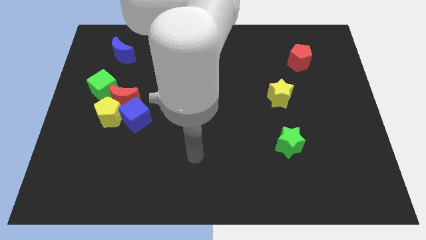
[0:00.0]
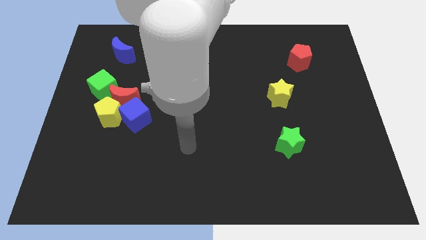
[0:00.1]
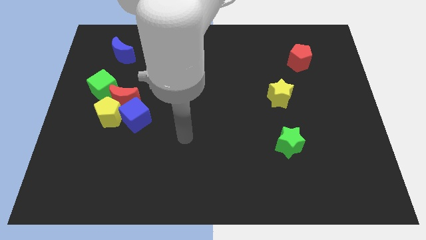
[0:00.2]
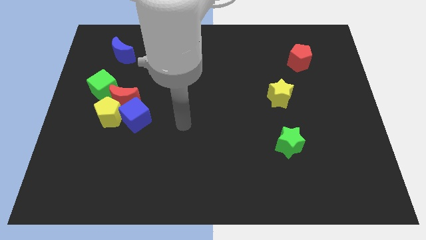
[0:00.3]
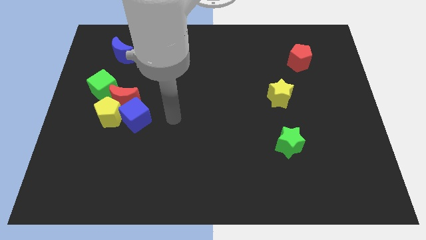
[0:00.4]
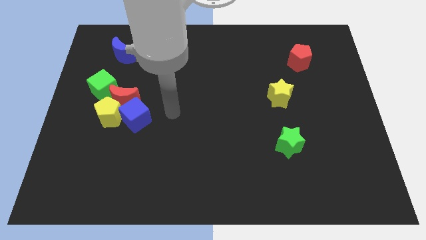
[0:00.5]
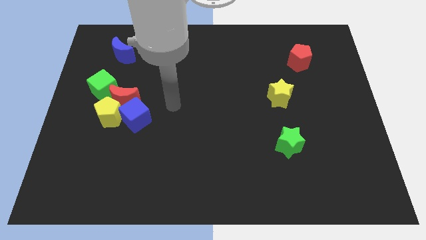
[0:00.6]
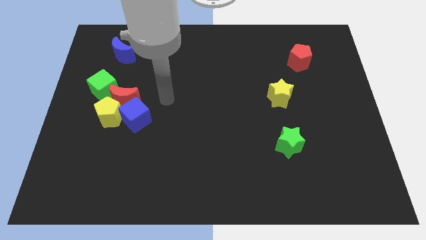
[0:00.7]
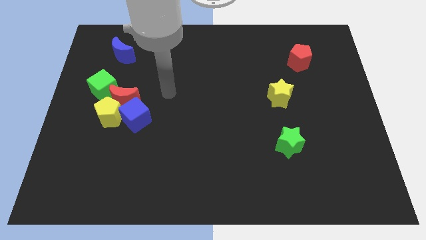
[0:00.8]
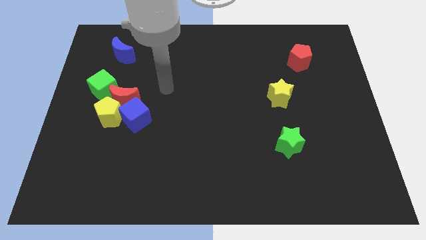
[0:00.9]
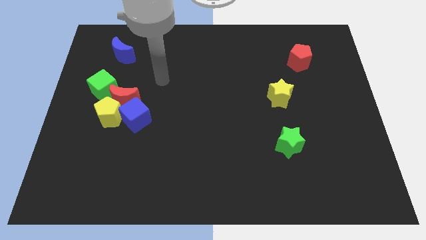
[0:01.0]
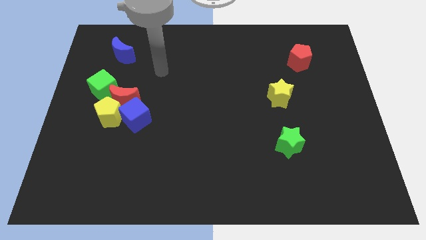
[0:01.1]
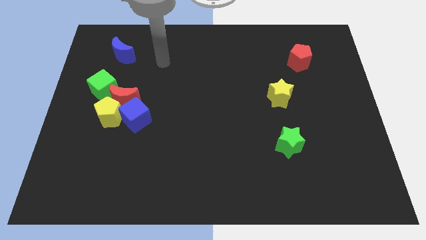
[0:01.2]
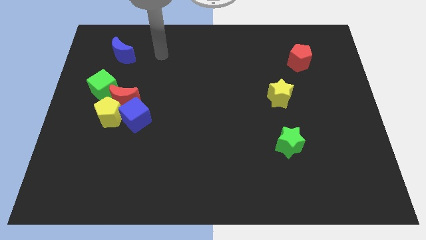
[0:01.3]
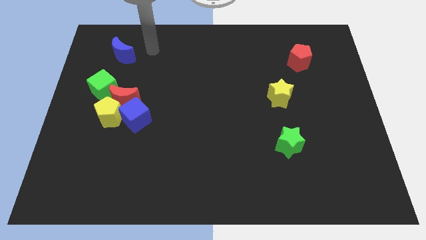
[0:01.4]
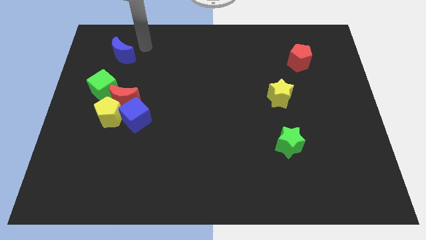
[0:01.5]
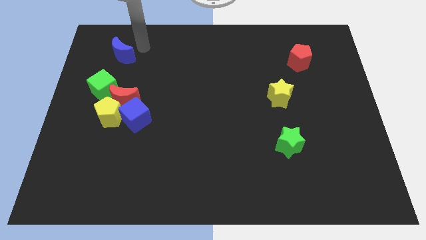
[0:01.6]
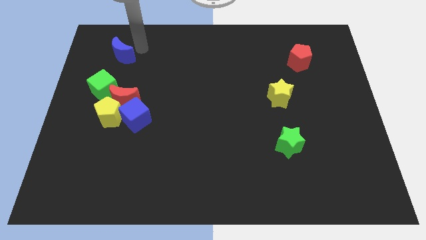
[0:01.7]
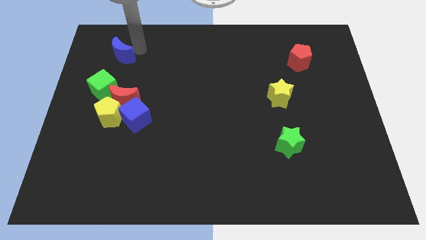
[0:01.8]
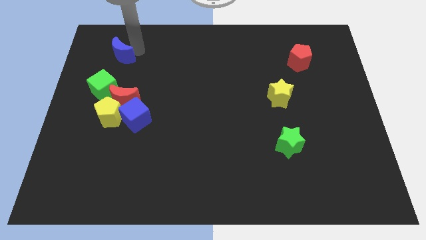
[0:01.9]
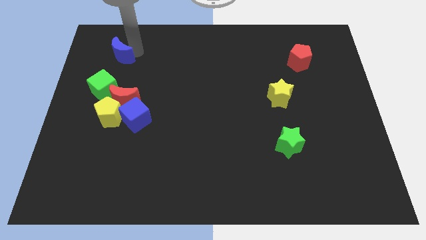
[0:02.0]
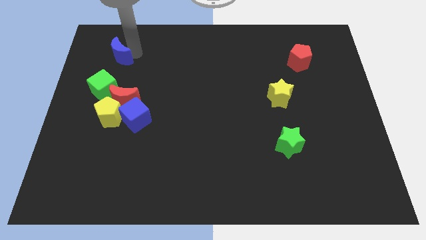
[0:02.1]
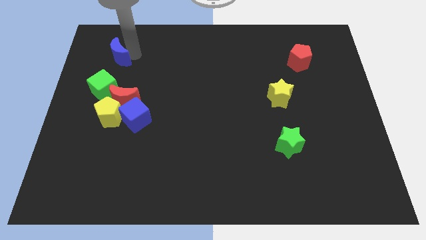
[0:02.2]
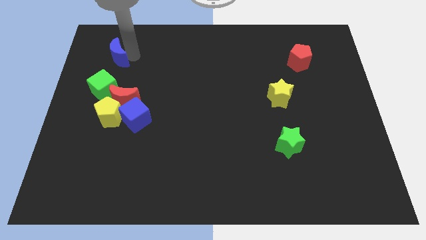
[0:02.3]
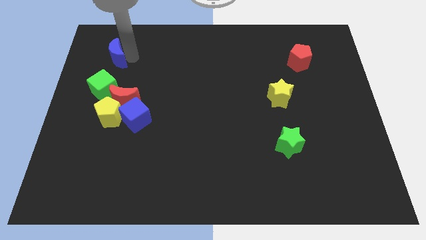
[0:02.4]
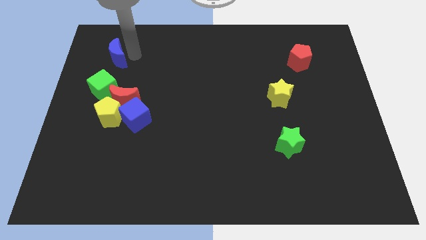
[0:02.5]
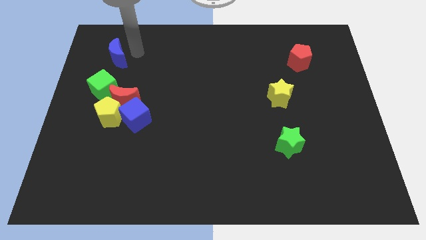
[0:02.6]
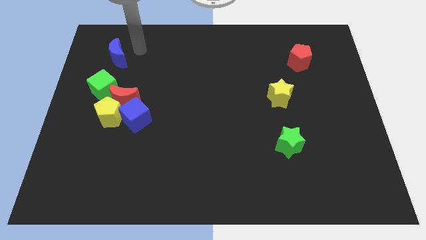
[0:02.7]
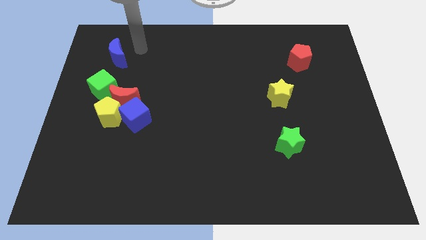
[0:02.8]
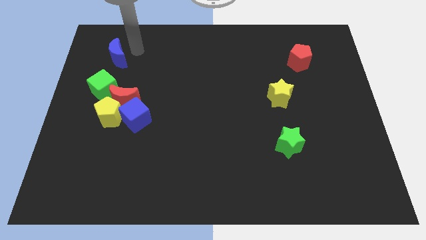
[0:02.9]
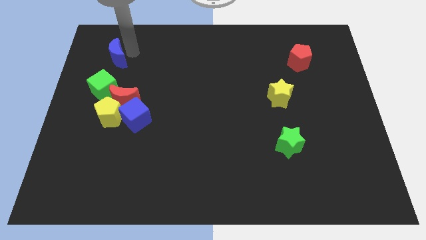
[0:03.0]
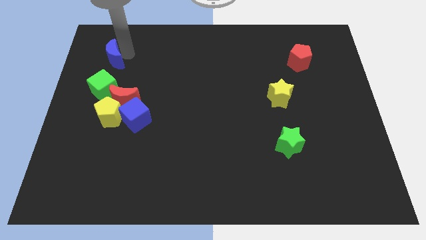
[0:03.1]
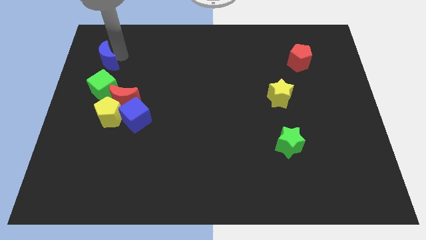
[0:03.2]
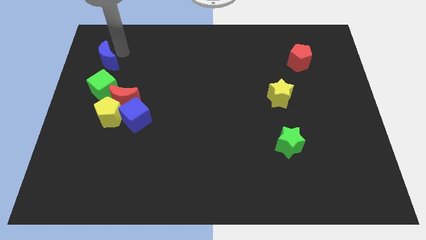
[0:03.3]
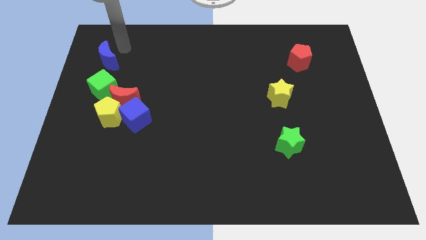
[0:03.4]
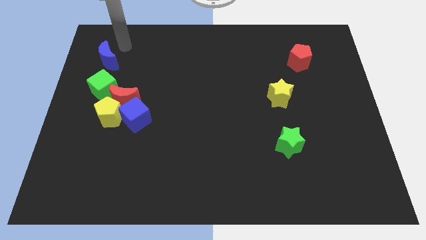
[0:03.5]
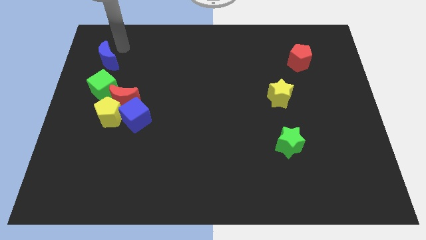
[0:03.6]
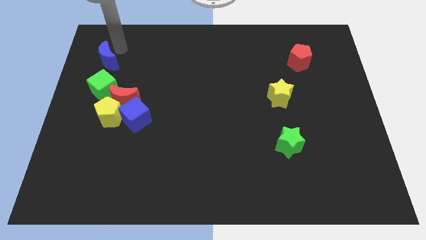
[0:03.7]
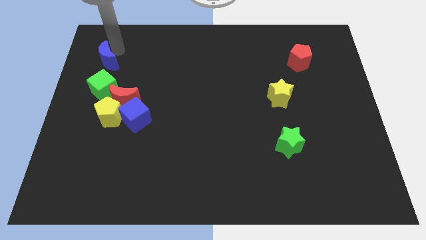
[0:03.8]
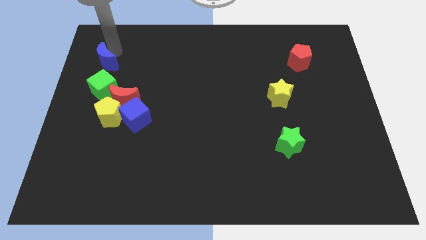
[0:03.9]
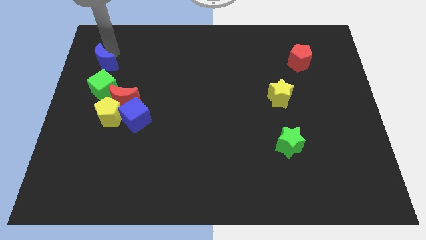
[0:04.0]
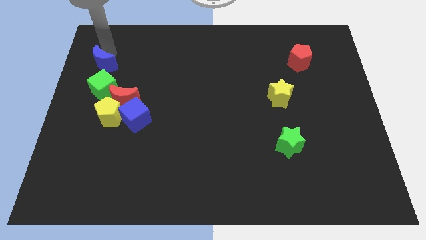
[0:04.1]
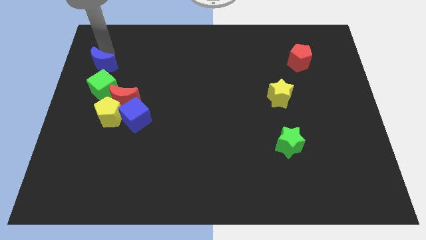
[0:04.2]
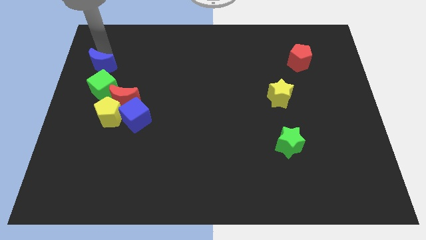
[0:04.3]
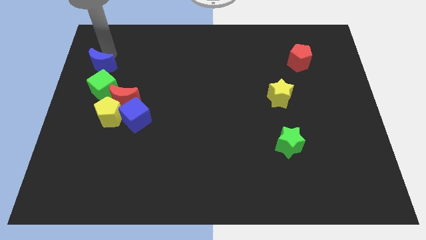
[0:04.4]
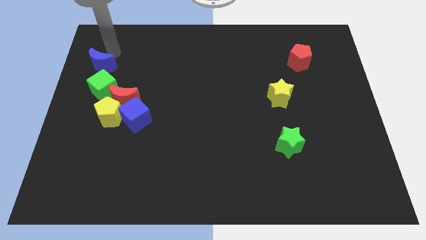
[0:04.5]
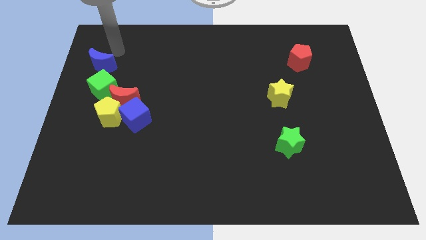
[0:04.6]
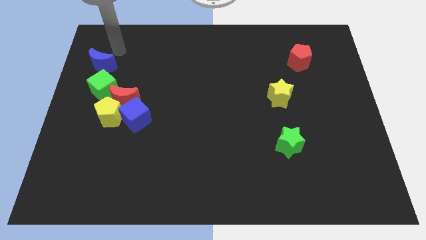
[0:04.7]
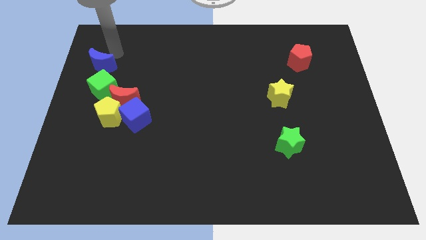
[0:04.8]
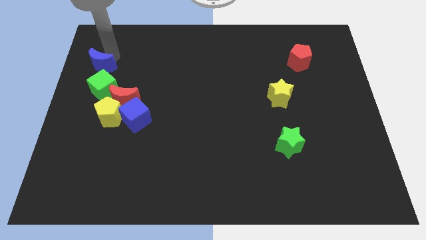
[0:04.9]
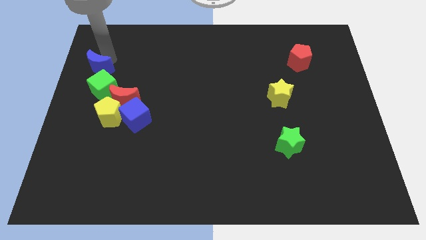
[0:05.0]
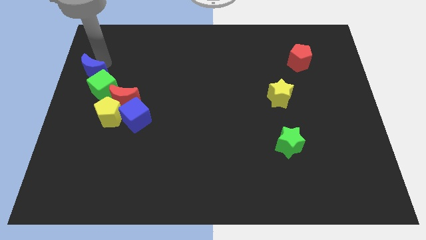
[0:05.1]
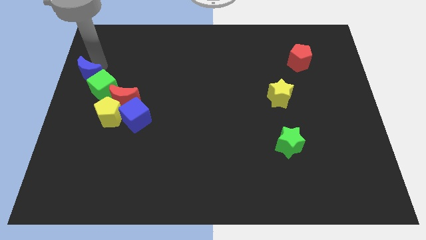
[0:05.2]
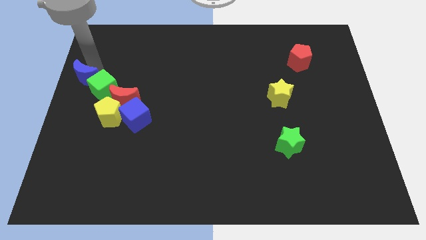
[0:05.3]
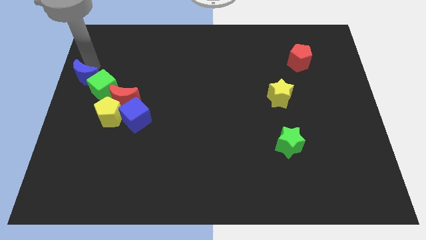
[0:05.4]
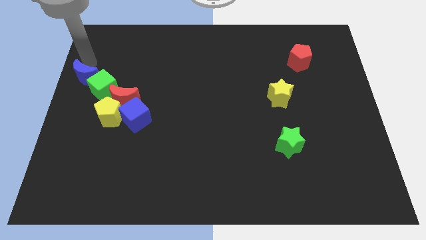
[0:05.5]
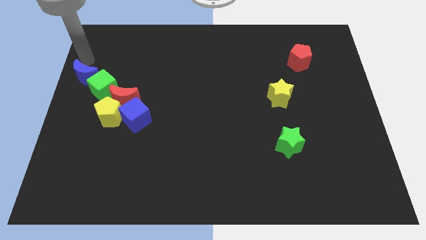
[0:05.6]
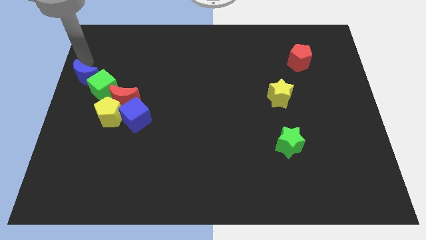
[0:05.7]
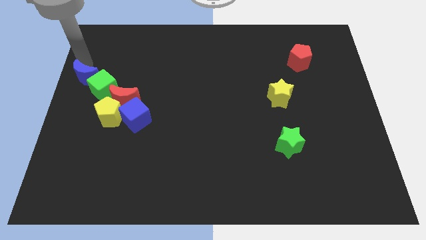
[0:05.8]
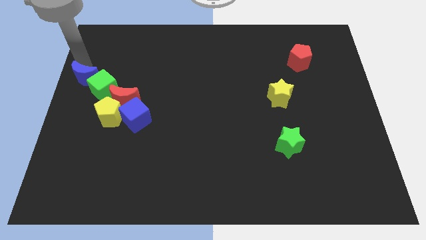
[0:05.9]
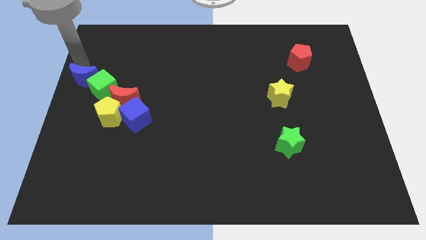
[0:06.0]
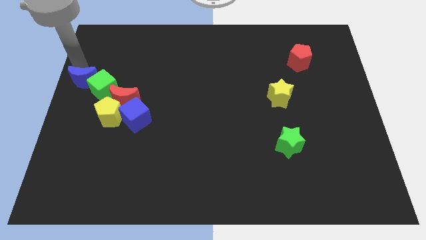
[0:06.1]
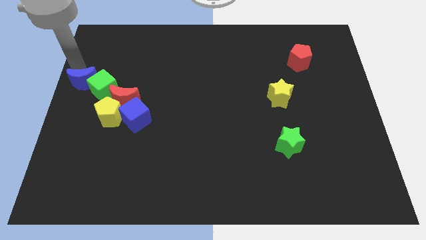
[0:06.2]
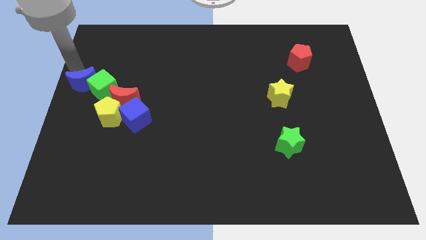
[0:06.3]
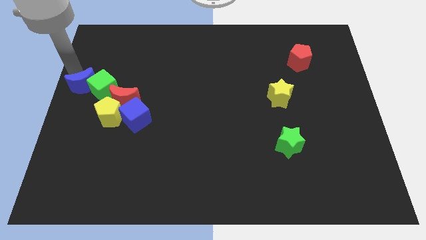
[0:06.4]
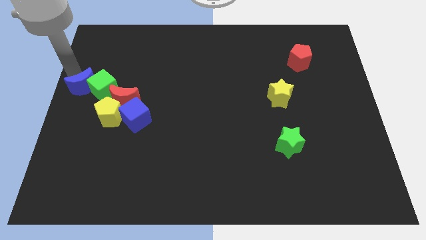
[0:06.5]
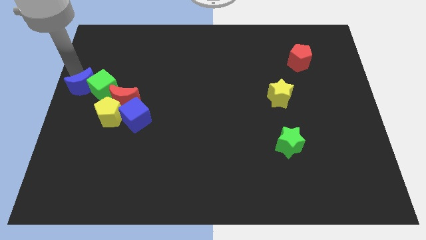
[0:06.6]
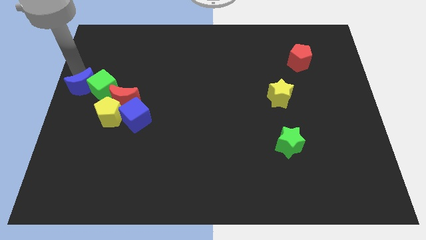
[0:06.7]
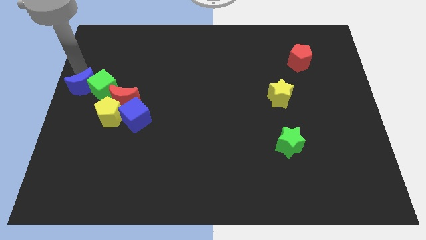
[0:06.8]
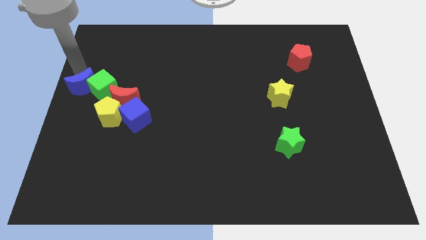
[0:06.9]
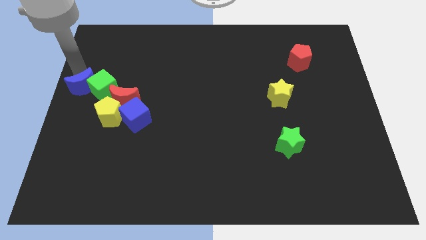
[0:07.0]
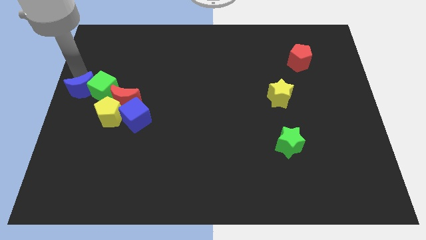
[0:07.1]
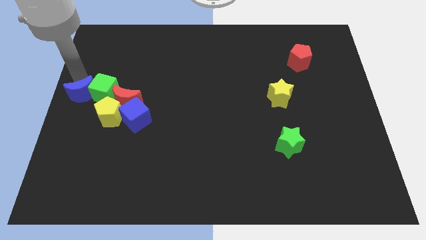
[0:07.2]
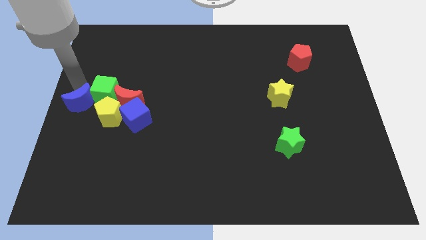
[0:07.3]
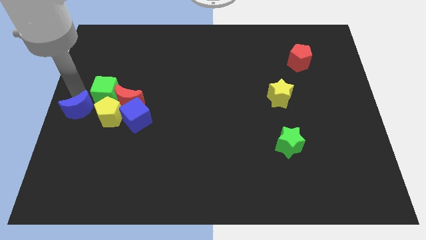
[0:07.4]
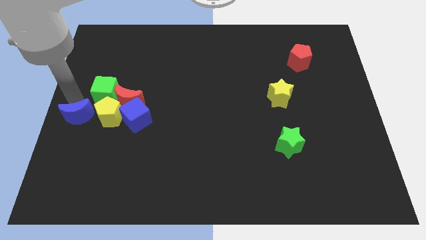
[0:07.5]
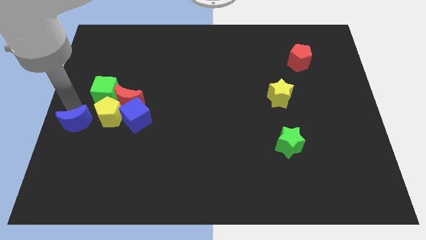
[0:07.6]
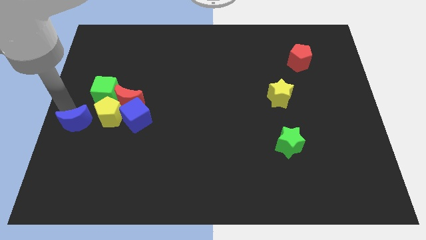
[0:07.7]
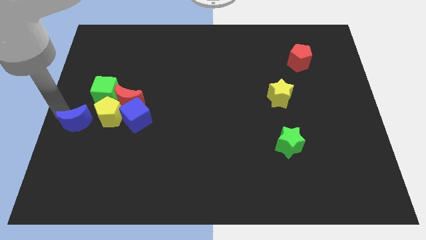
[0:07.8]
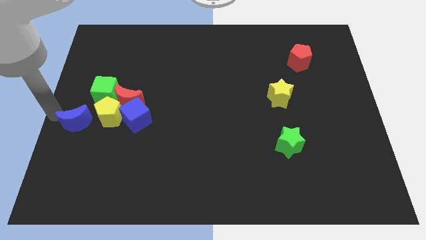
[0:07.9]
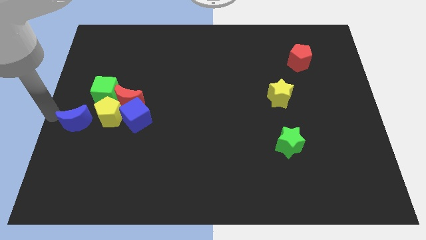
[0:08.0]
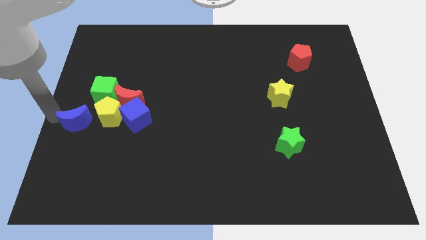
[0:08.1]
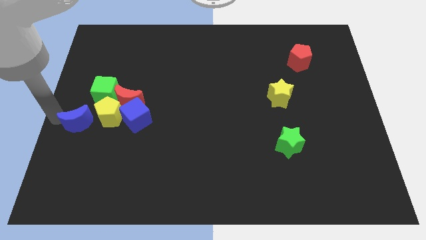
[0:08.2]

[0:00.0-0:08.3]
move the blue moon to the bottom of the green cube
